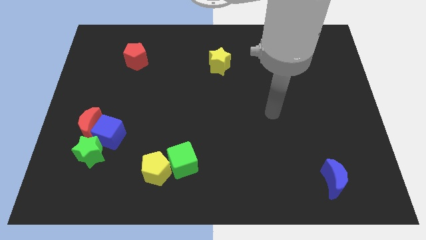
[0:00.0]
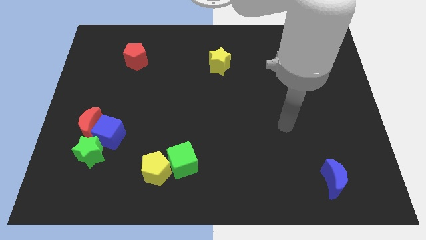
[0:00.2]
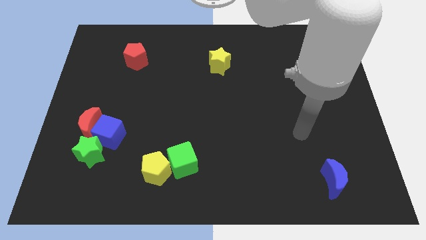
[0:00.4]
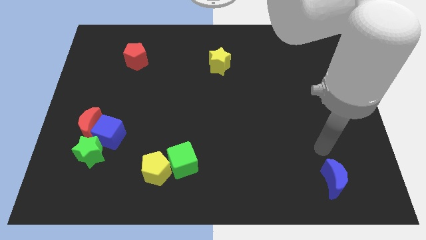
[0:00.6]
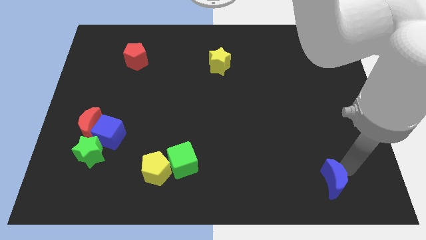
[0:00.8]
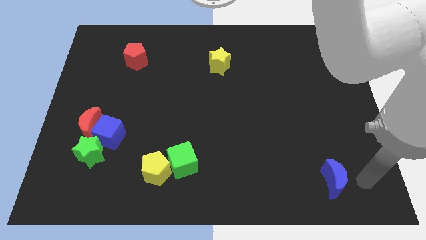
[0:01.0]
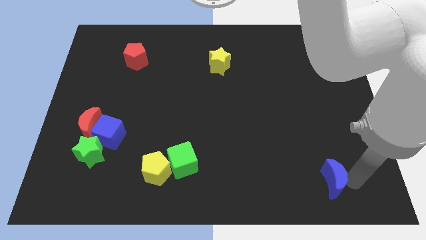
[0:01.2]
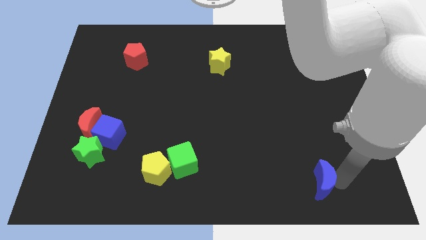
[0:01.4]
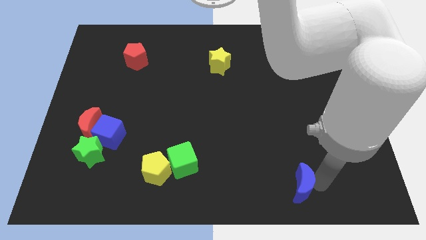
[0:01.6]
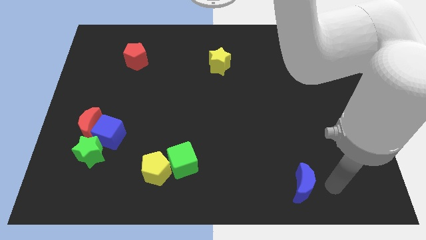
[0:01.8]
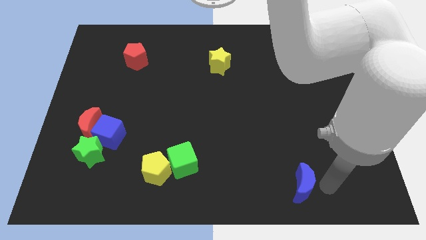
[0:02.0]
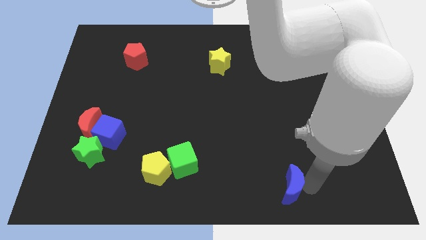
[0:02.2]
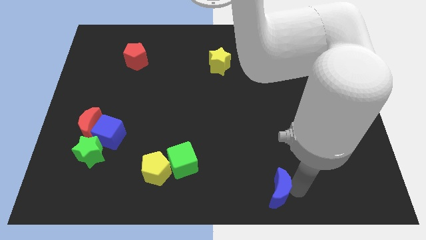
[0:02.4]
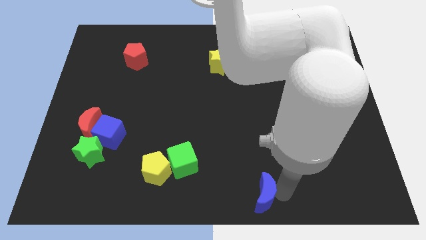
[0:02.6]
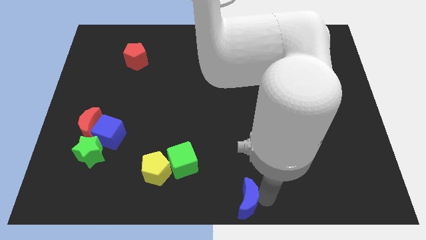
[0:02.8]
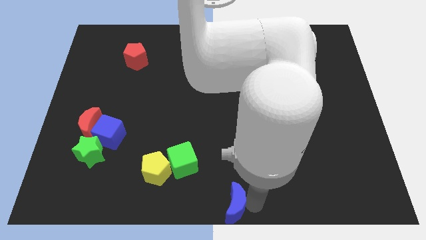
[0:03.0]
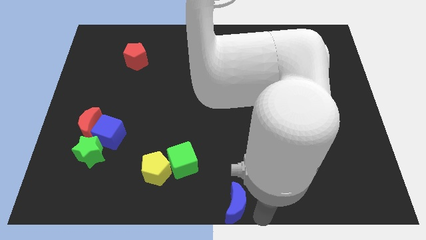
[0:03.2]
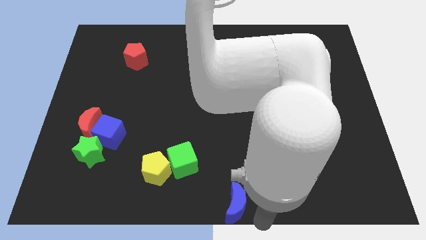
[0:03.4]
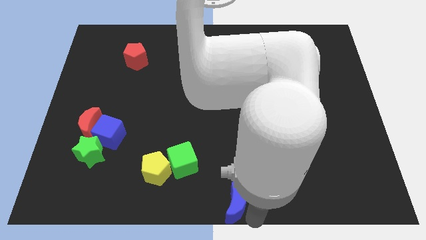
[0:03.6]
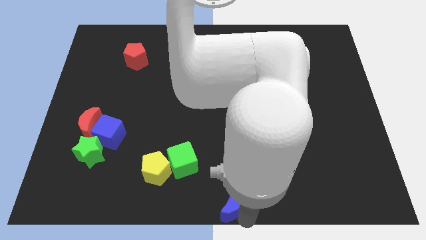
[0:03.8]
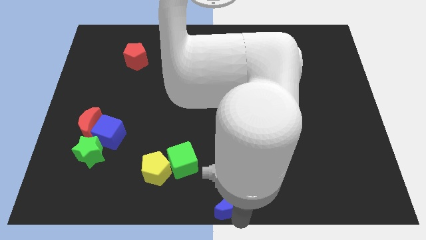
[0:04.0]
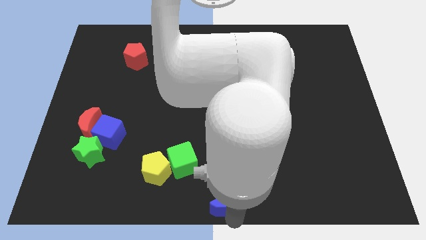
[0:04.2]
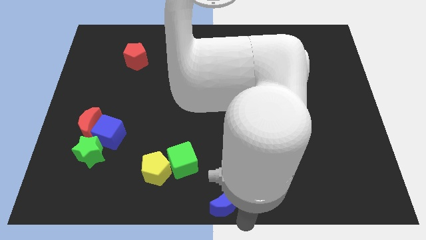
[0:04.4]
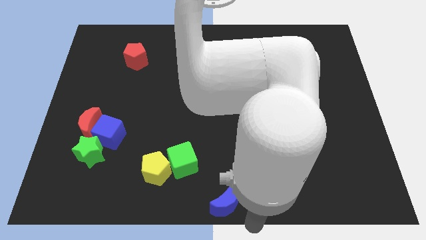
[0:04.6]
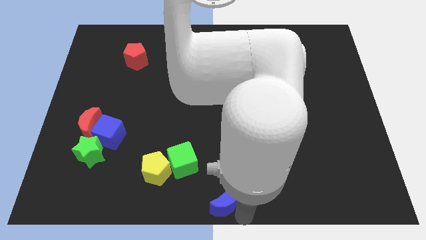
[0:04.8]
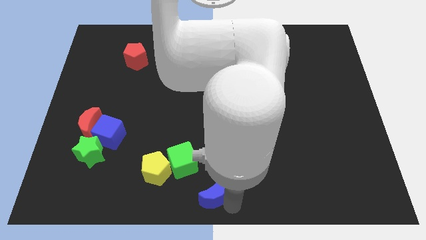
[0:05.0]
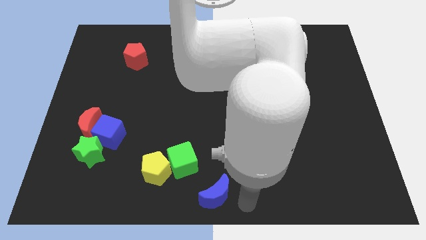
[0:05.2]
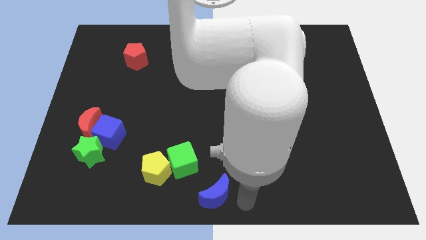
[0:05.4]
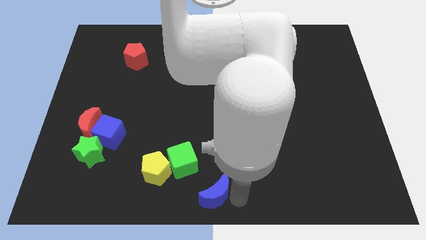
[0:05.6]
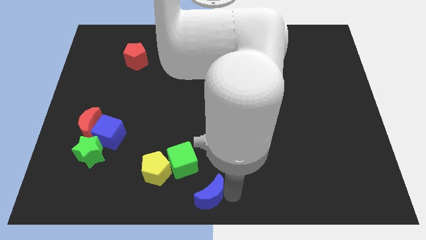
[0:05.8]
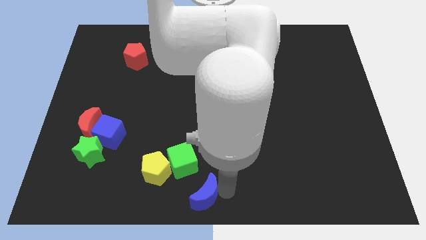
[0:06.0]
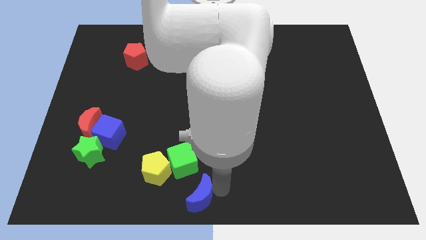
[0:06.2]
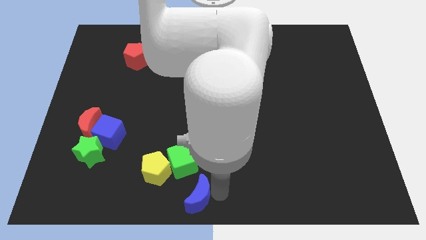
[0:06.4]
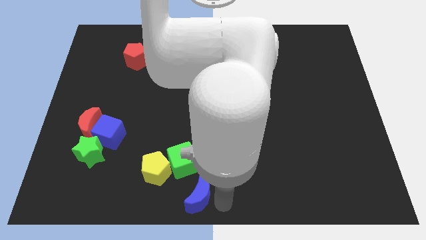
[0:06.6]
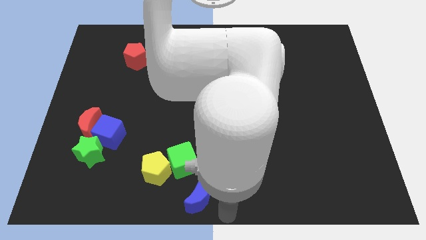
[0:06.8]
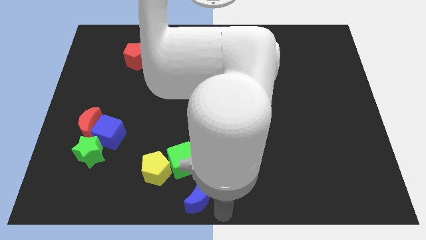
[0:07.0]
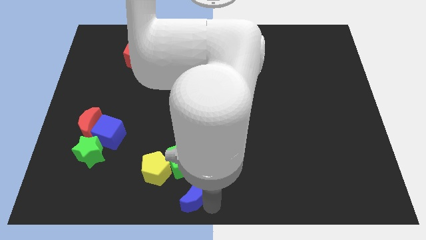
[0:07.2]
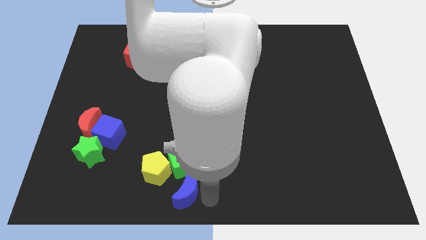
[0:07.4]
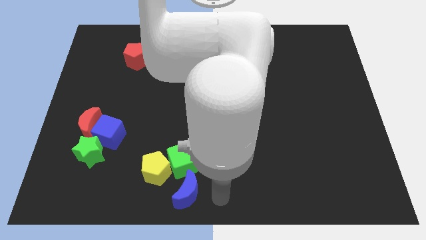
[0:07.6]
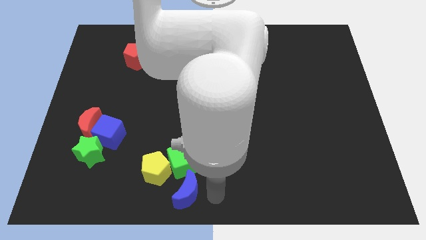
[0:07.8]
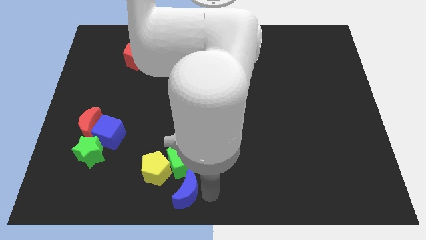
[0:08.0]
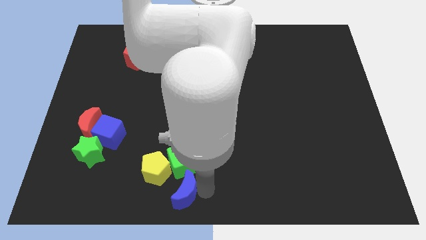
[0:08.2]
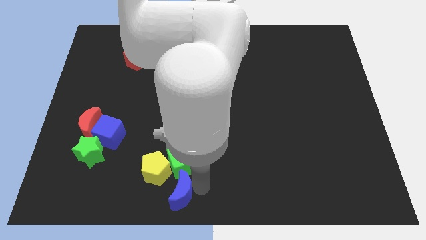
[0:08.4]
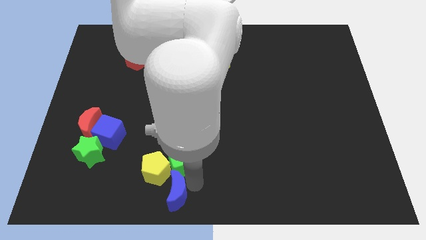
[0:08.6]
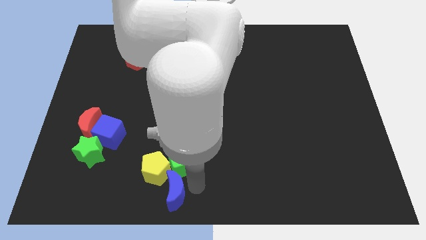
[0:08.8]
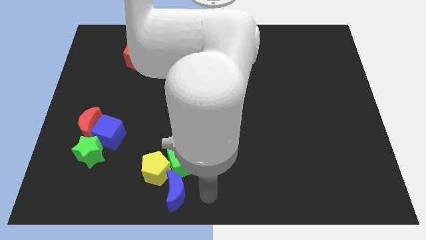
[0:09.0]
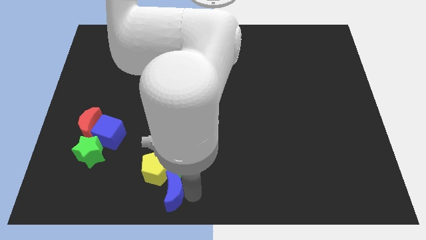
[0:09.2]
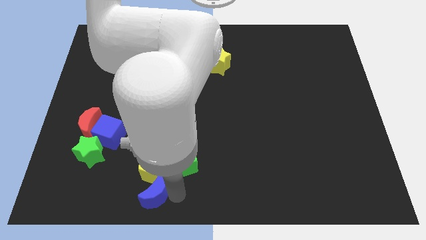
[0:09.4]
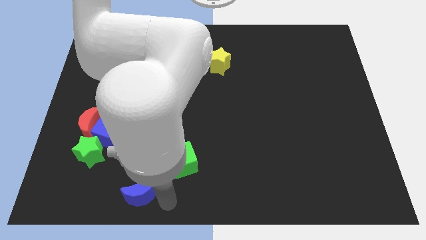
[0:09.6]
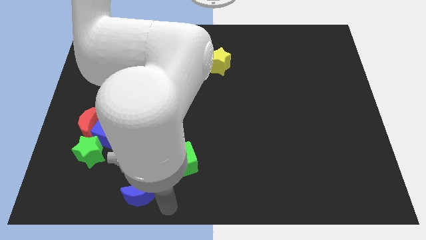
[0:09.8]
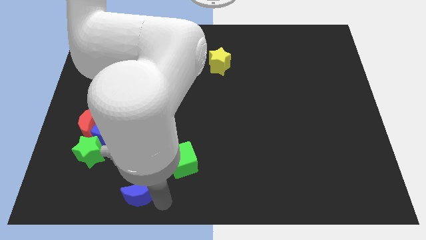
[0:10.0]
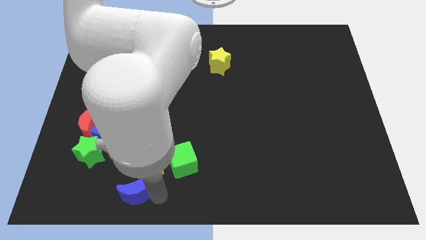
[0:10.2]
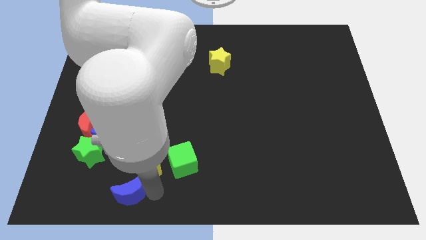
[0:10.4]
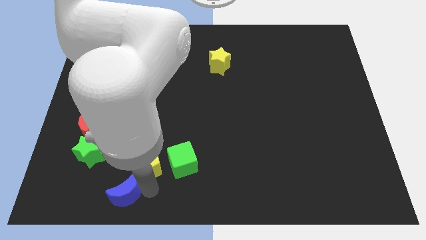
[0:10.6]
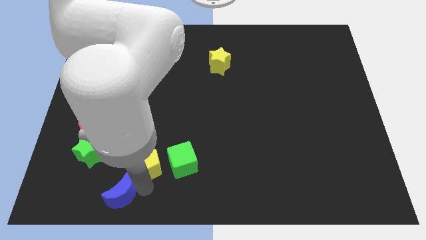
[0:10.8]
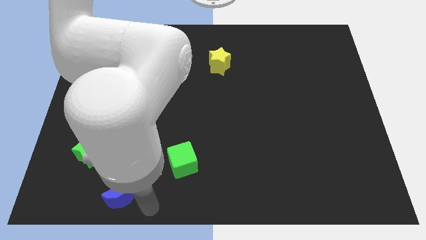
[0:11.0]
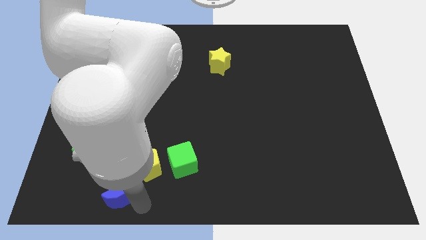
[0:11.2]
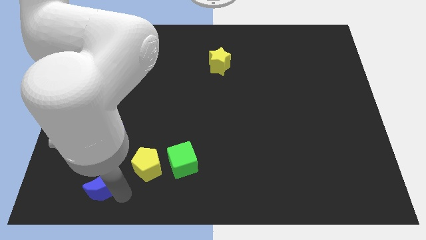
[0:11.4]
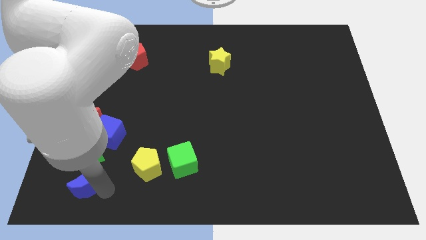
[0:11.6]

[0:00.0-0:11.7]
put the blue moon to the bottom side of the red moon

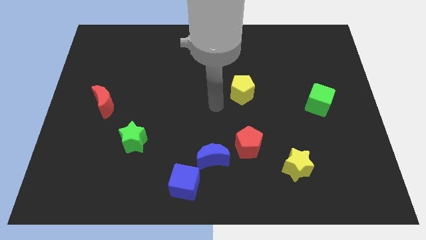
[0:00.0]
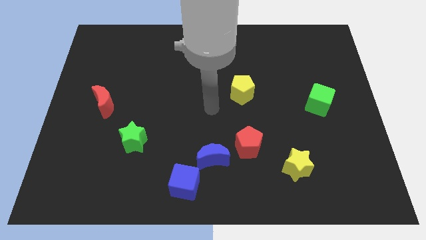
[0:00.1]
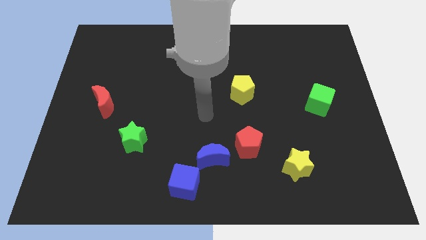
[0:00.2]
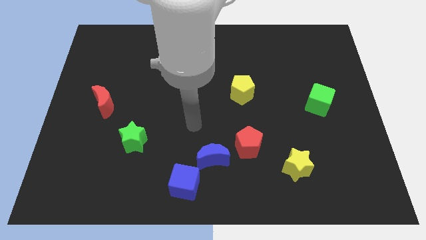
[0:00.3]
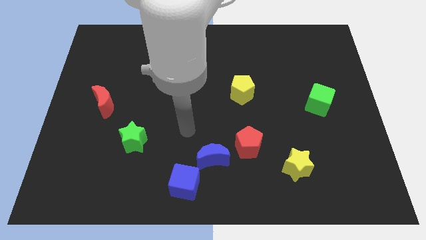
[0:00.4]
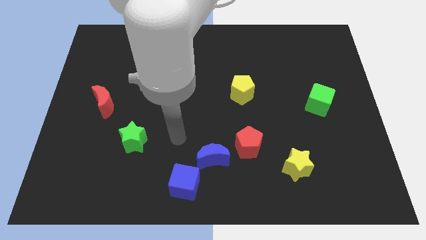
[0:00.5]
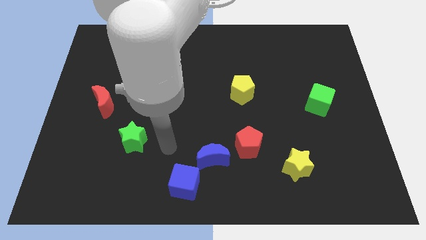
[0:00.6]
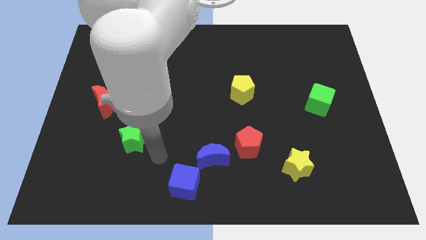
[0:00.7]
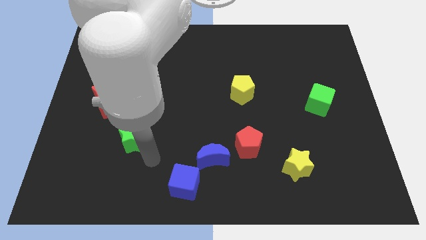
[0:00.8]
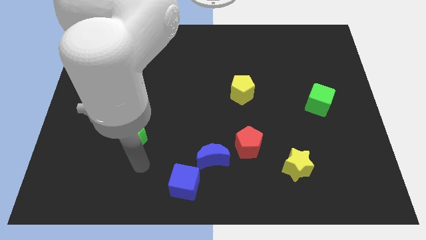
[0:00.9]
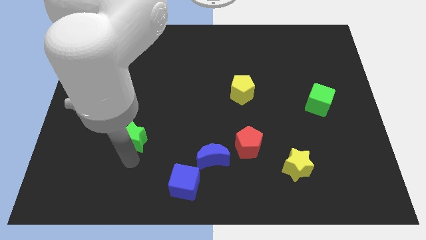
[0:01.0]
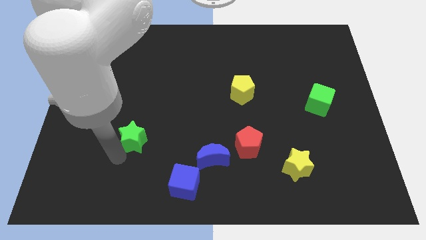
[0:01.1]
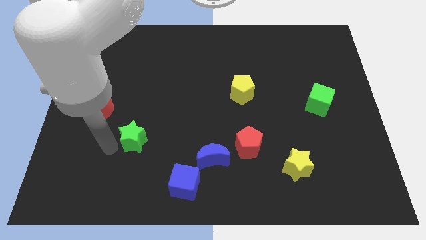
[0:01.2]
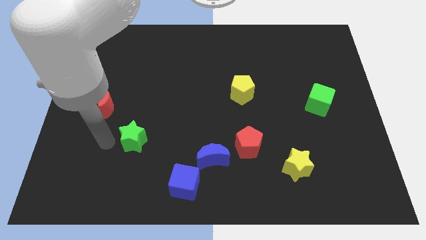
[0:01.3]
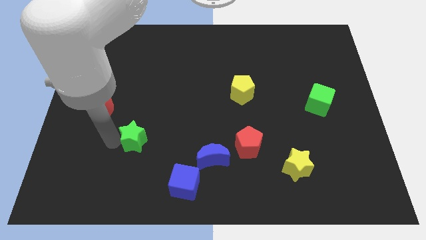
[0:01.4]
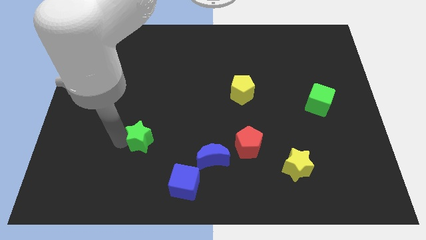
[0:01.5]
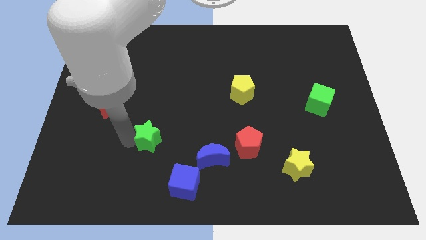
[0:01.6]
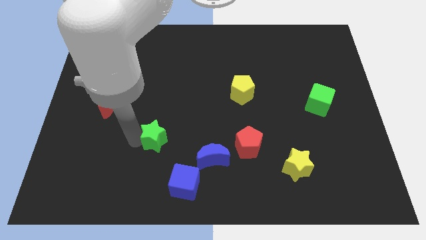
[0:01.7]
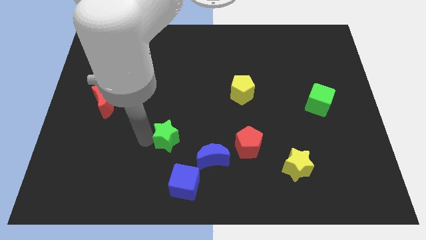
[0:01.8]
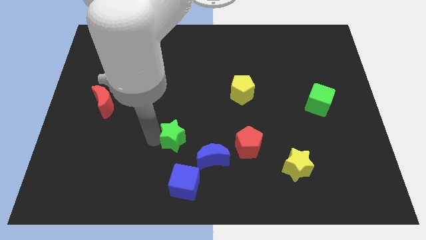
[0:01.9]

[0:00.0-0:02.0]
put the green star to the left of the red pentagon
